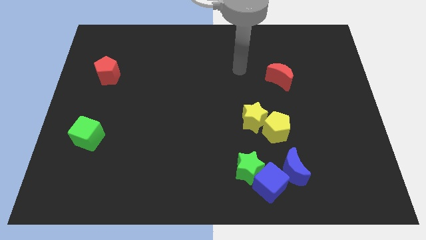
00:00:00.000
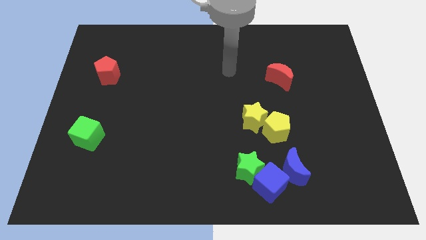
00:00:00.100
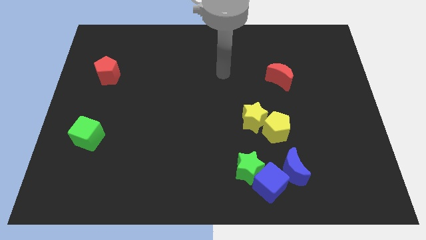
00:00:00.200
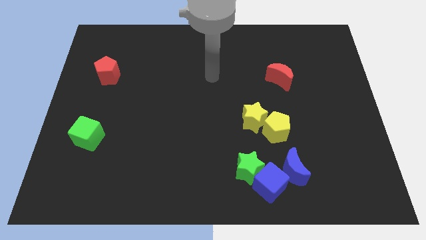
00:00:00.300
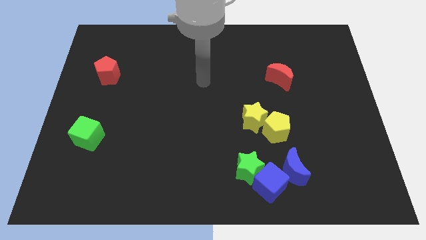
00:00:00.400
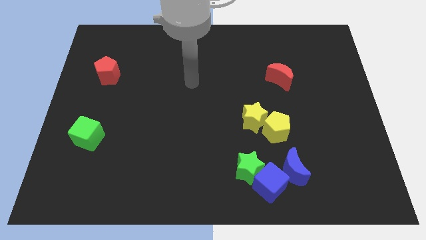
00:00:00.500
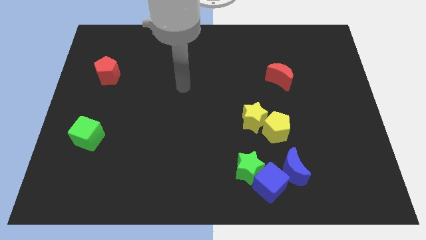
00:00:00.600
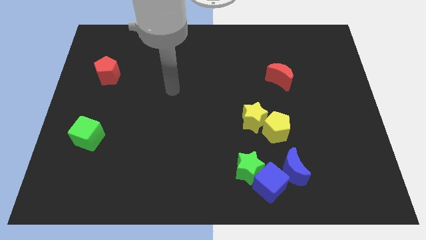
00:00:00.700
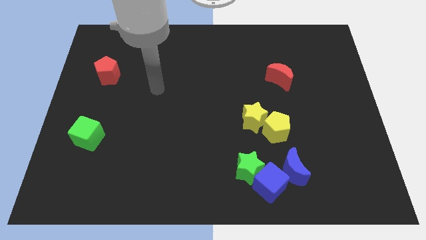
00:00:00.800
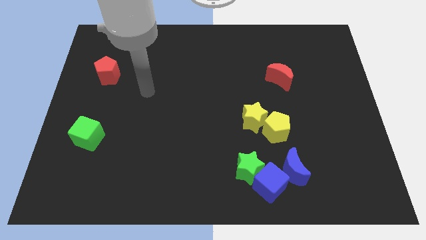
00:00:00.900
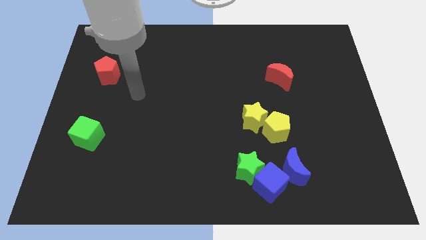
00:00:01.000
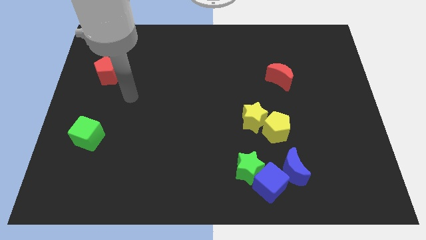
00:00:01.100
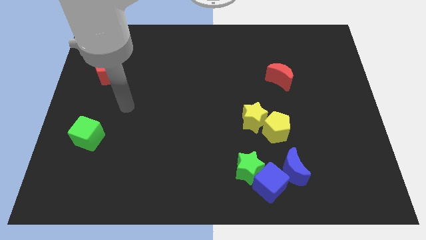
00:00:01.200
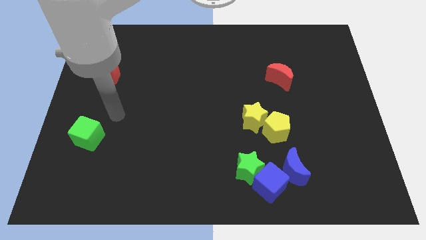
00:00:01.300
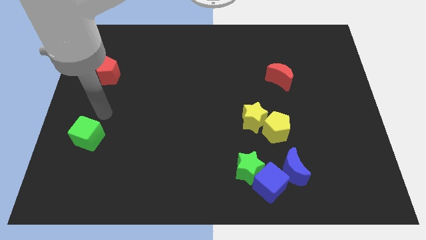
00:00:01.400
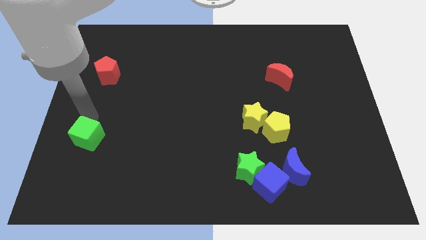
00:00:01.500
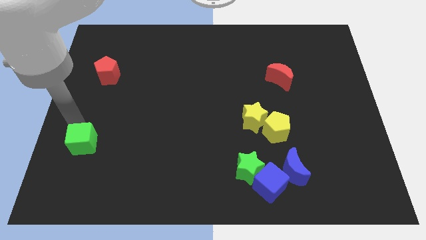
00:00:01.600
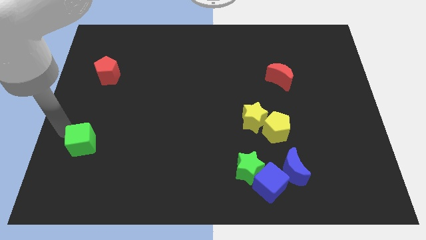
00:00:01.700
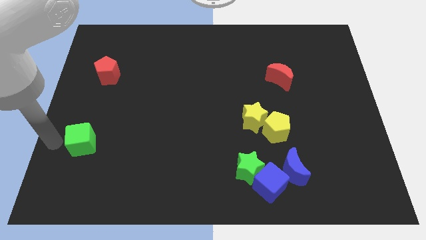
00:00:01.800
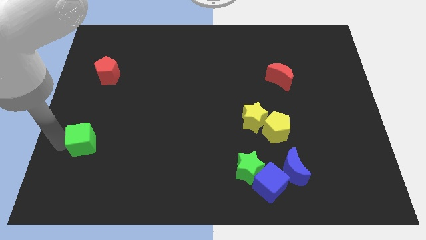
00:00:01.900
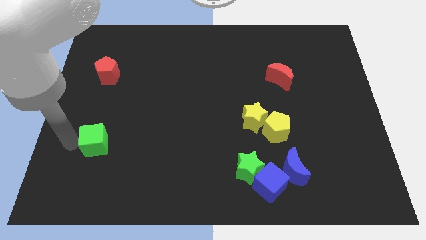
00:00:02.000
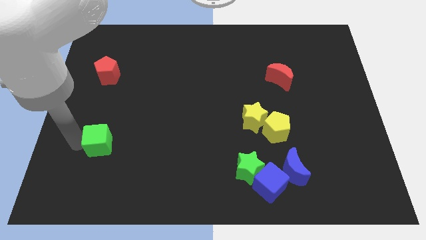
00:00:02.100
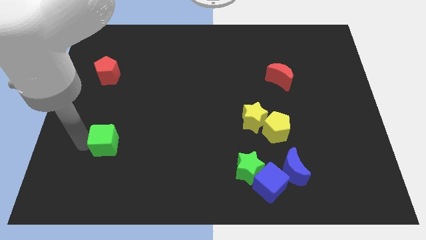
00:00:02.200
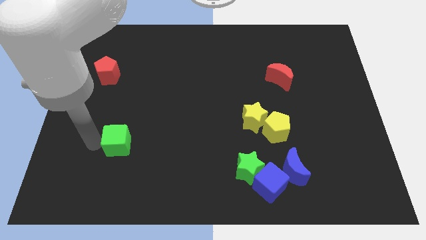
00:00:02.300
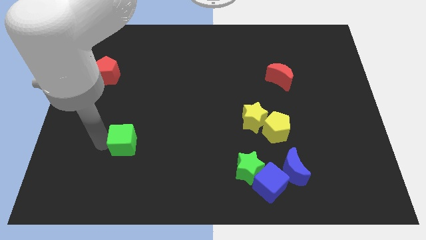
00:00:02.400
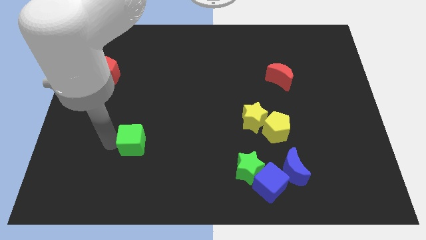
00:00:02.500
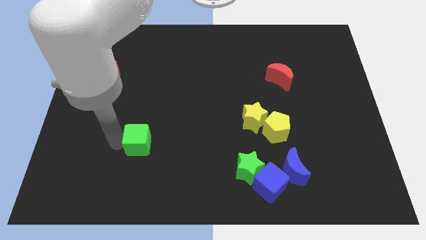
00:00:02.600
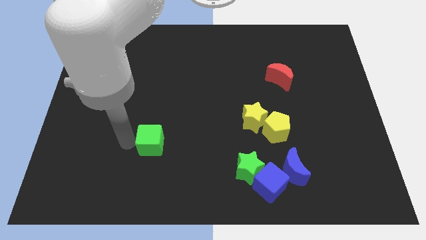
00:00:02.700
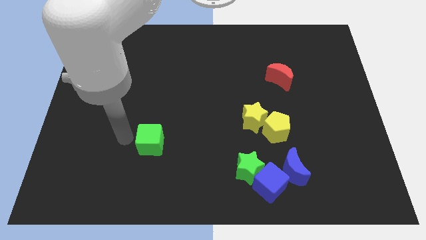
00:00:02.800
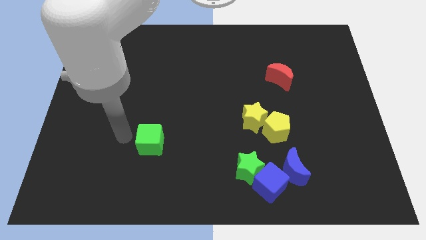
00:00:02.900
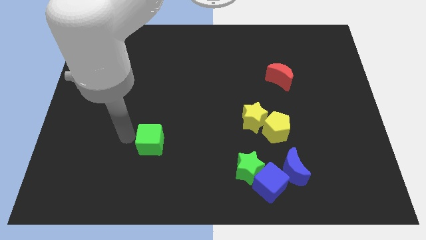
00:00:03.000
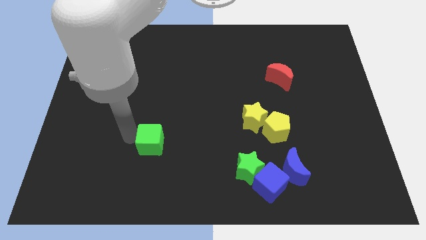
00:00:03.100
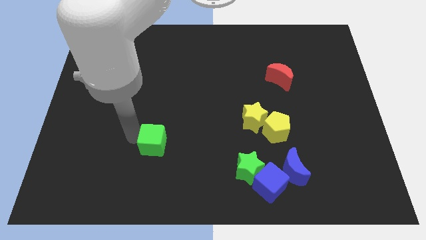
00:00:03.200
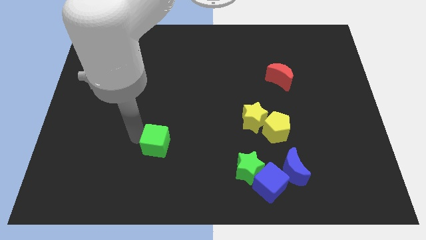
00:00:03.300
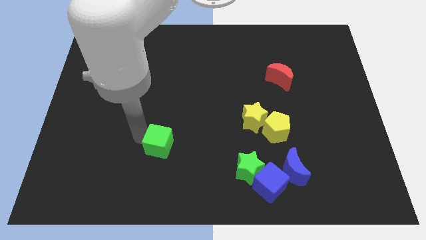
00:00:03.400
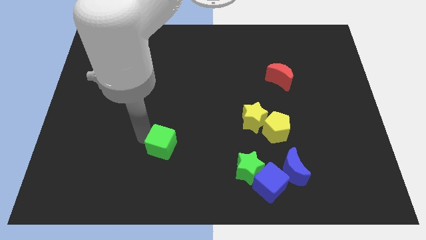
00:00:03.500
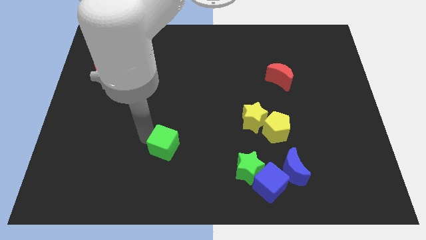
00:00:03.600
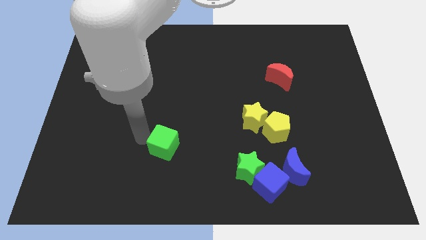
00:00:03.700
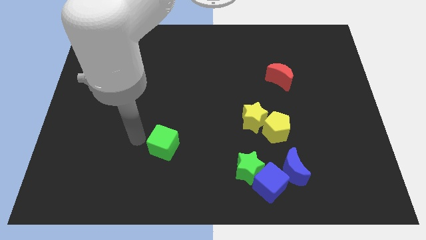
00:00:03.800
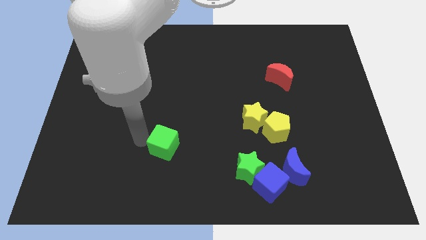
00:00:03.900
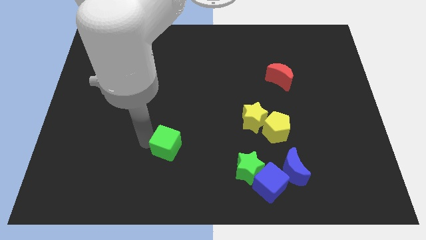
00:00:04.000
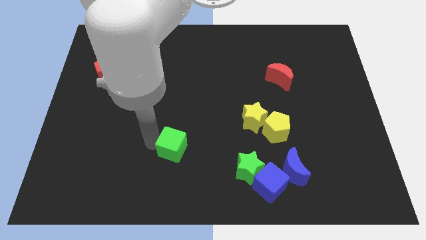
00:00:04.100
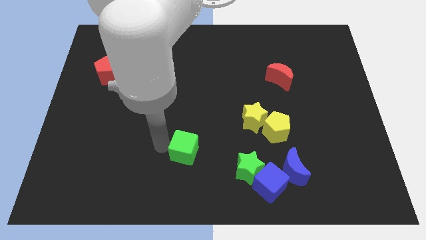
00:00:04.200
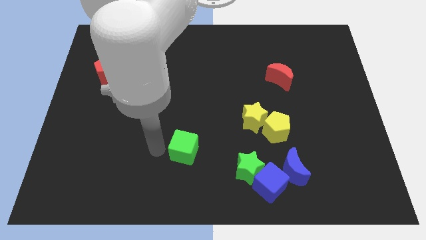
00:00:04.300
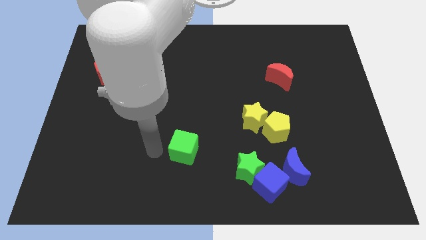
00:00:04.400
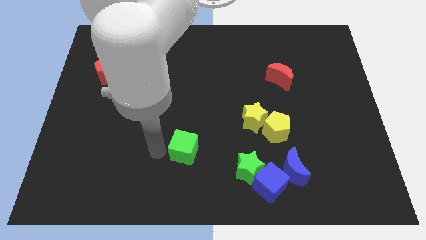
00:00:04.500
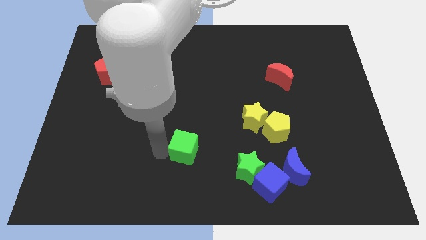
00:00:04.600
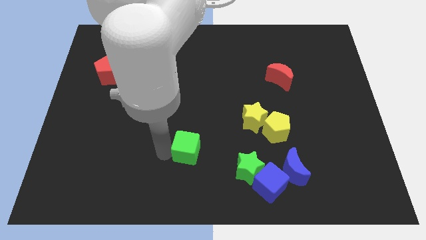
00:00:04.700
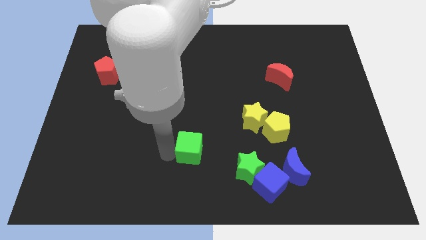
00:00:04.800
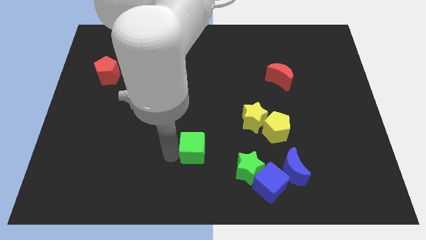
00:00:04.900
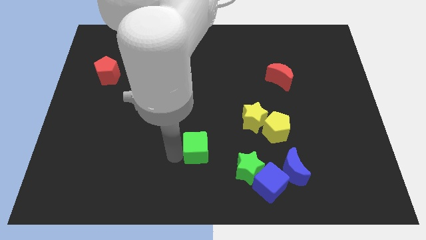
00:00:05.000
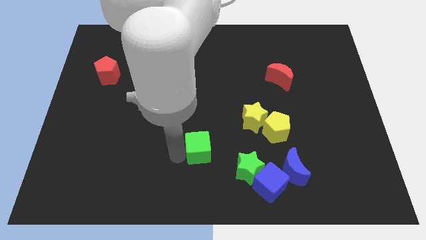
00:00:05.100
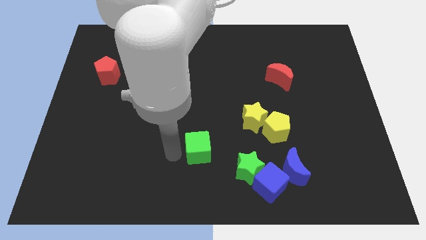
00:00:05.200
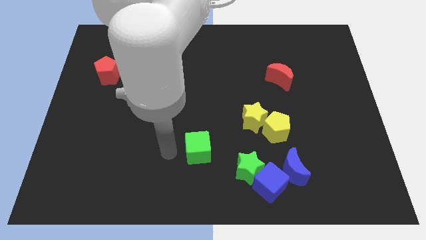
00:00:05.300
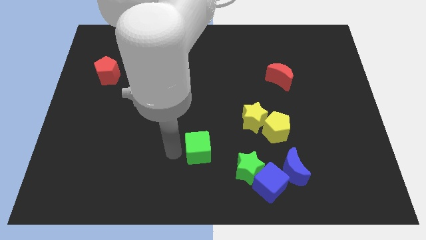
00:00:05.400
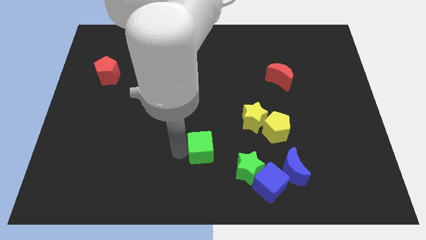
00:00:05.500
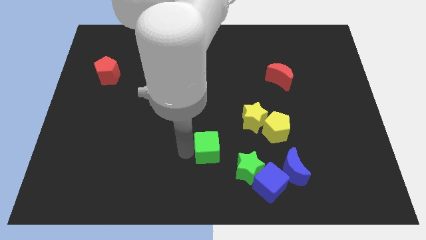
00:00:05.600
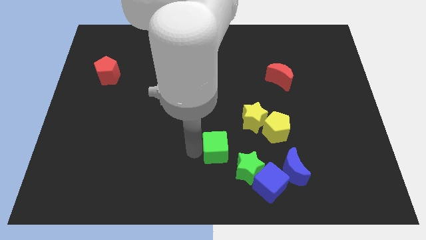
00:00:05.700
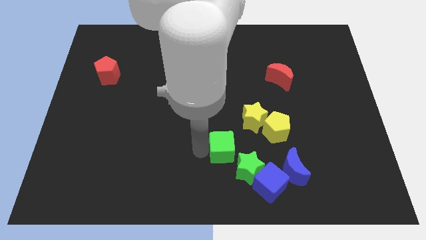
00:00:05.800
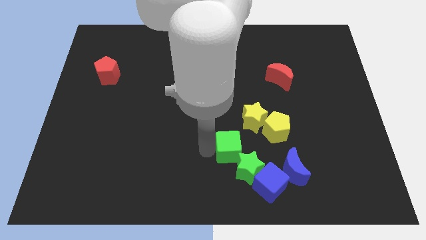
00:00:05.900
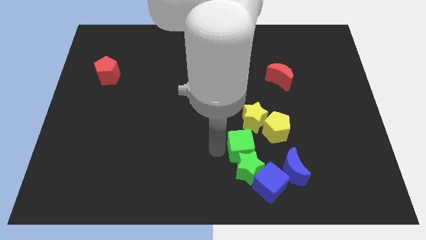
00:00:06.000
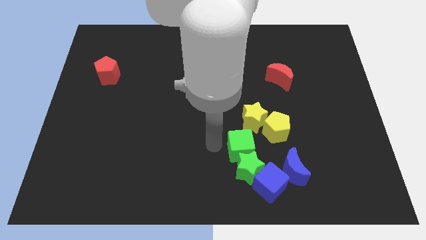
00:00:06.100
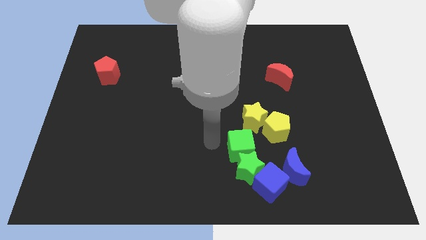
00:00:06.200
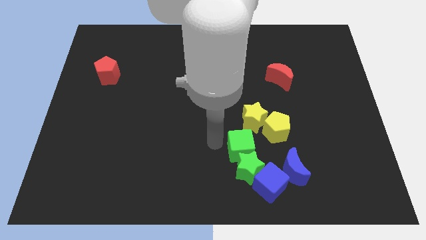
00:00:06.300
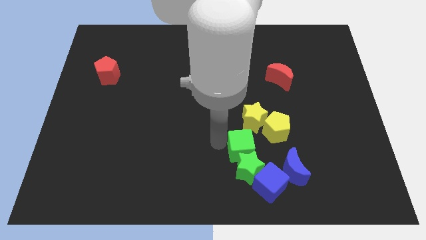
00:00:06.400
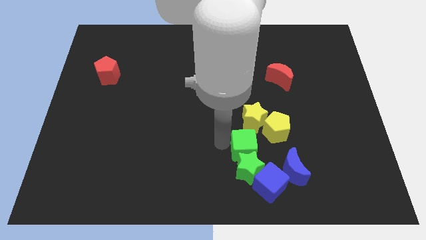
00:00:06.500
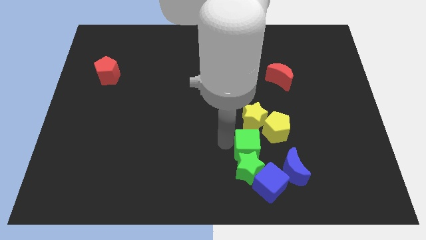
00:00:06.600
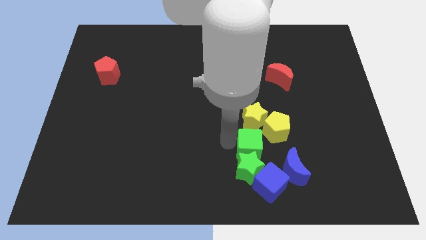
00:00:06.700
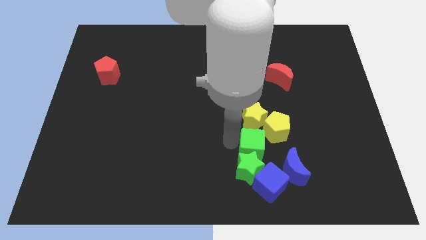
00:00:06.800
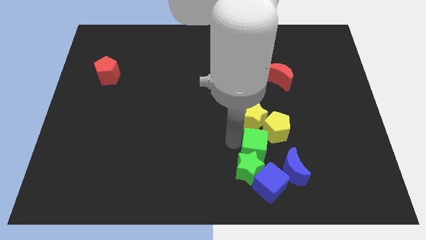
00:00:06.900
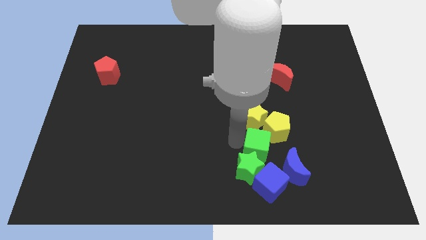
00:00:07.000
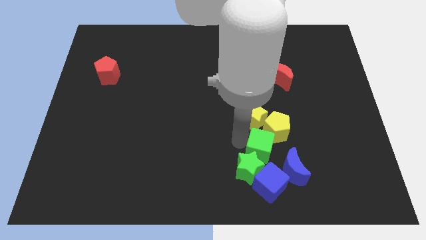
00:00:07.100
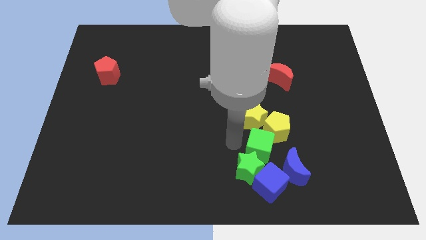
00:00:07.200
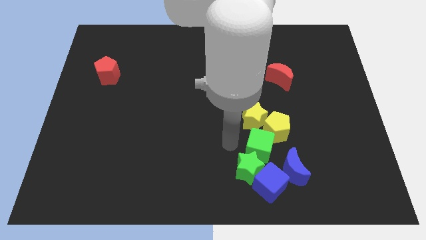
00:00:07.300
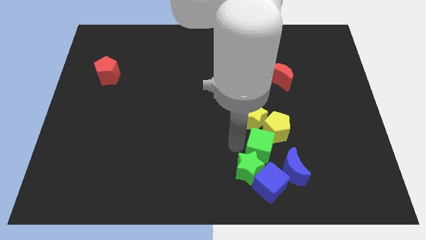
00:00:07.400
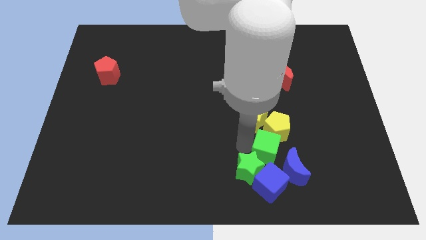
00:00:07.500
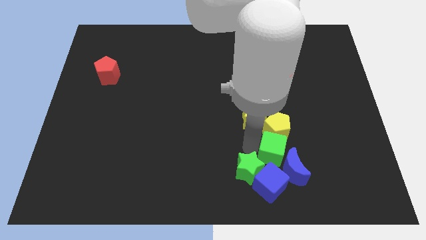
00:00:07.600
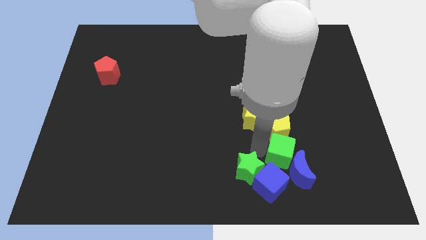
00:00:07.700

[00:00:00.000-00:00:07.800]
put the green cube diagonally down and to the right of the yellow pentagon

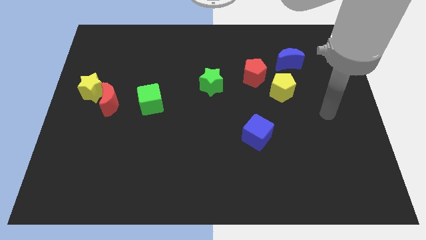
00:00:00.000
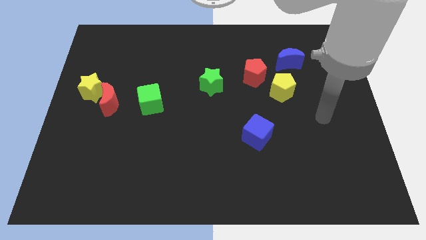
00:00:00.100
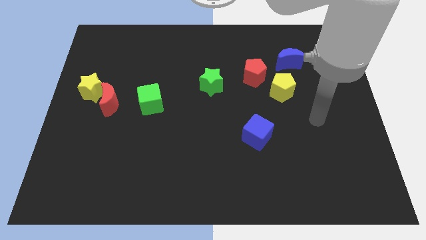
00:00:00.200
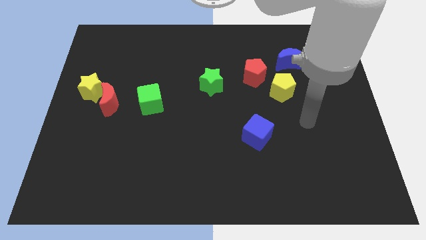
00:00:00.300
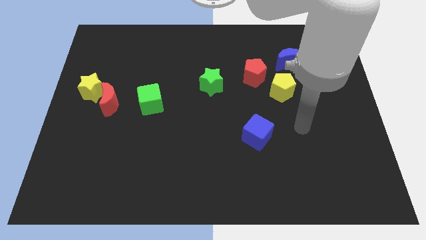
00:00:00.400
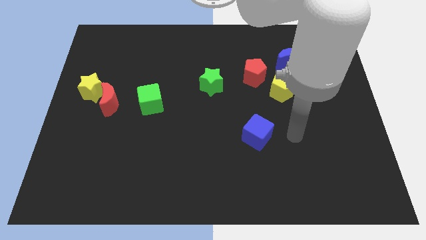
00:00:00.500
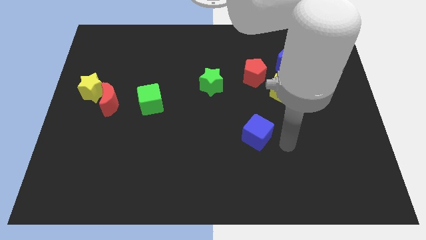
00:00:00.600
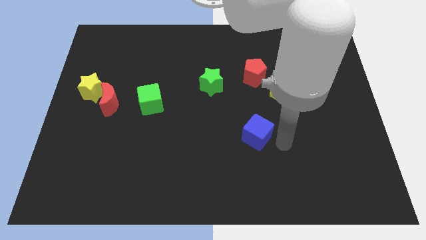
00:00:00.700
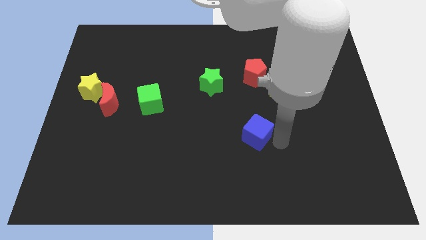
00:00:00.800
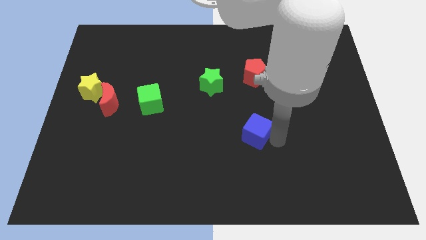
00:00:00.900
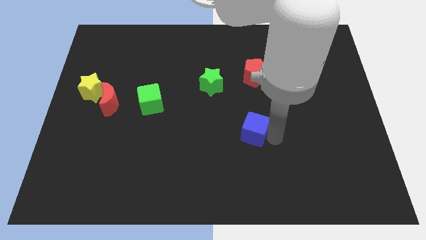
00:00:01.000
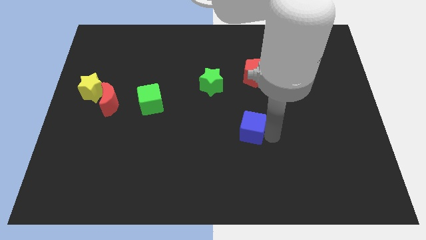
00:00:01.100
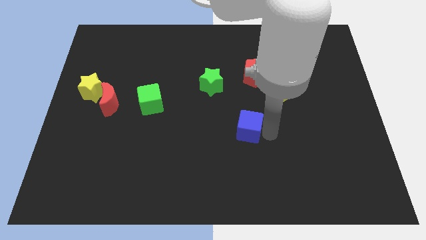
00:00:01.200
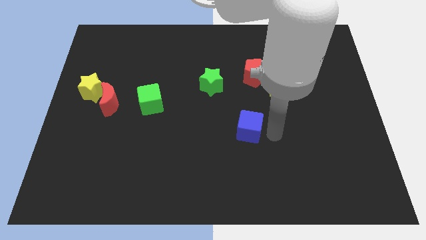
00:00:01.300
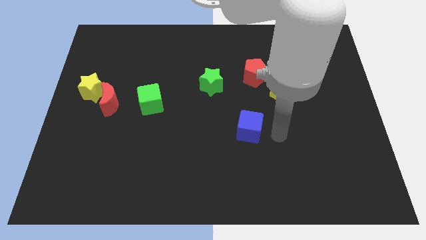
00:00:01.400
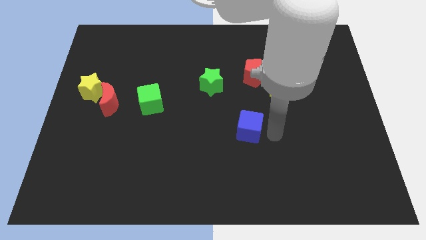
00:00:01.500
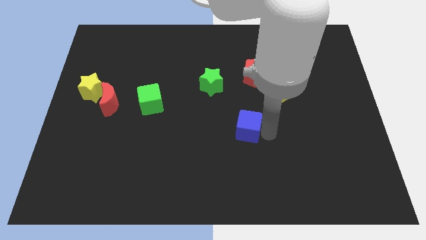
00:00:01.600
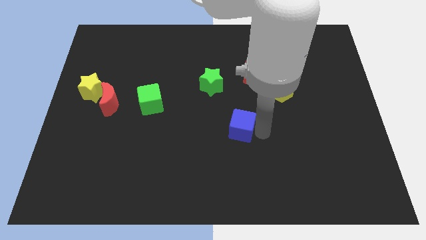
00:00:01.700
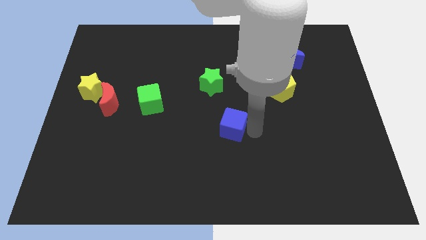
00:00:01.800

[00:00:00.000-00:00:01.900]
slide the blue cube to the bottom of the green star
